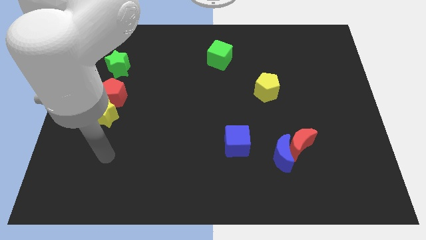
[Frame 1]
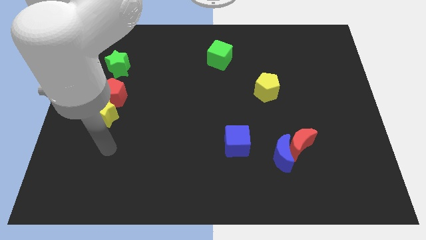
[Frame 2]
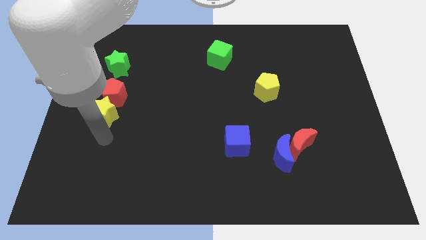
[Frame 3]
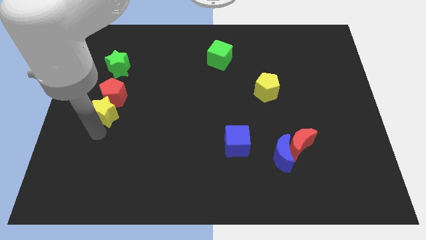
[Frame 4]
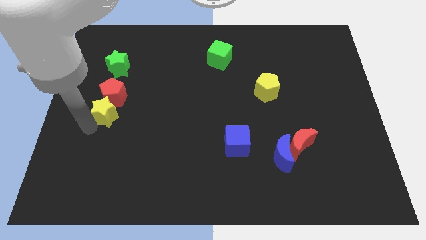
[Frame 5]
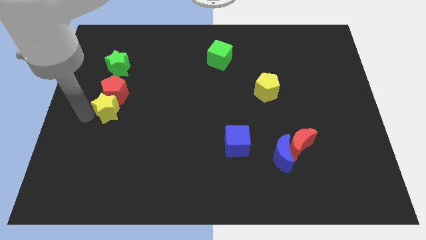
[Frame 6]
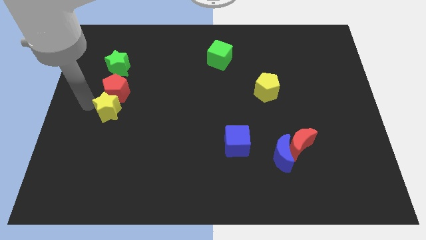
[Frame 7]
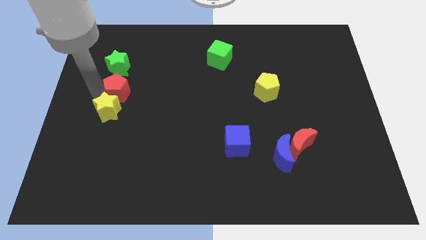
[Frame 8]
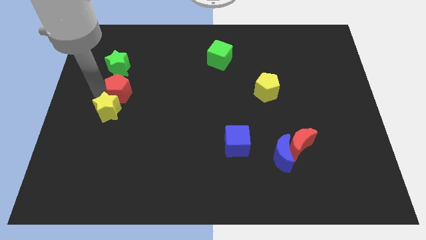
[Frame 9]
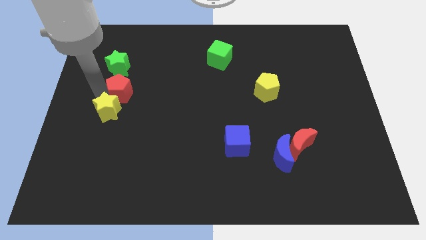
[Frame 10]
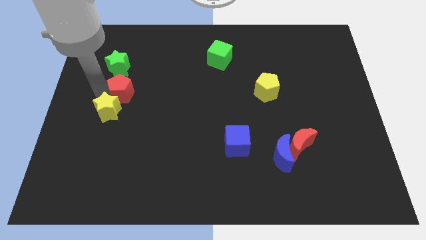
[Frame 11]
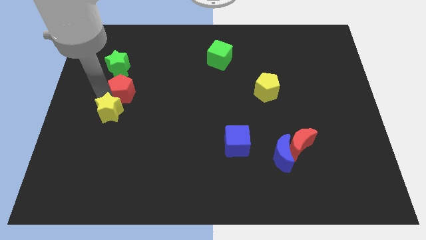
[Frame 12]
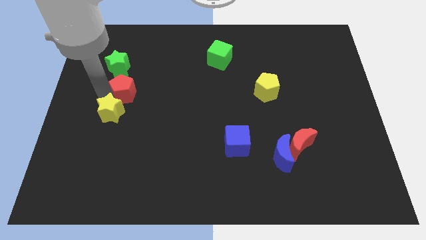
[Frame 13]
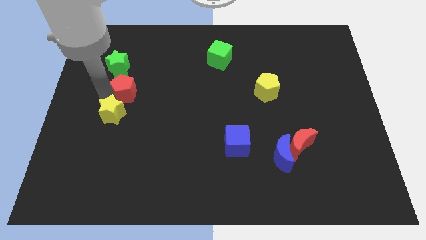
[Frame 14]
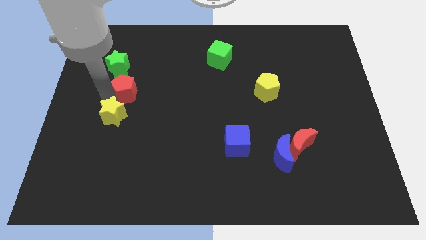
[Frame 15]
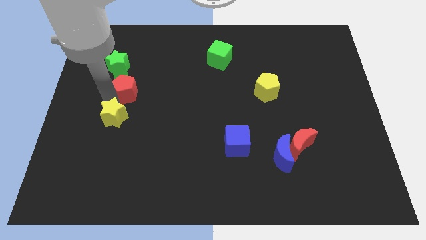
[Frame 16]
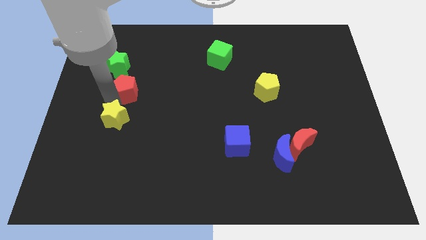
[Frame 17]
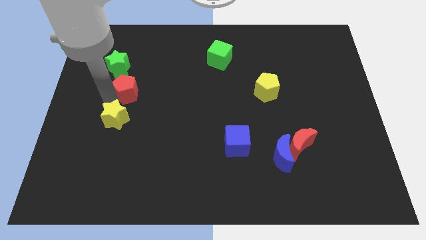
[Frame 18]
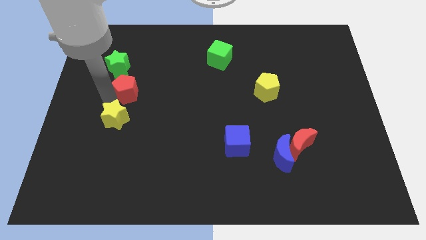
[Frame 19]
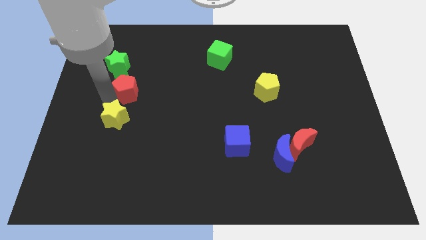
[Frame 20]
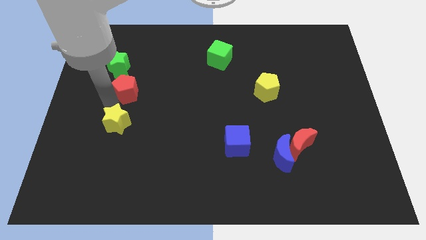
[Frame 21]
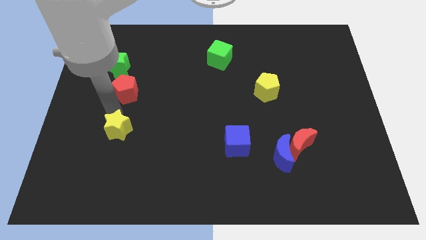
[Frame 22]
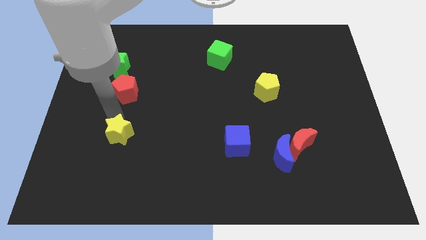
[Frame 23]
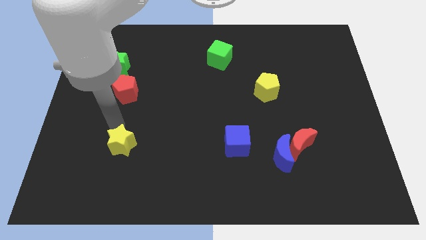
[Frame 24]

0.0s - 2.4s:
slide the yellow star a bit downwards and to the right

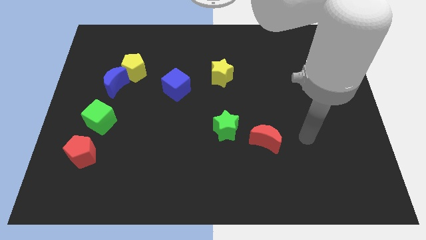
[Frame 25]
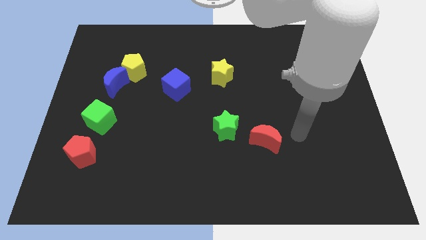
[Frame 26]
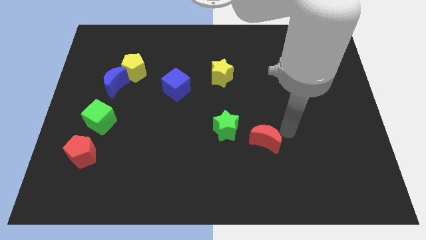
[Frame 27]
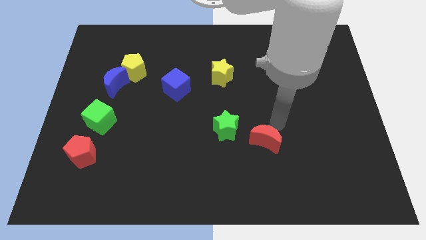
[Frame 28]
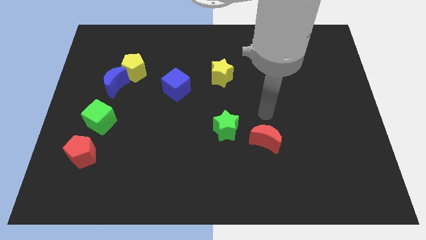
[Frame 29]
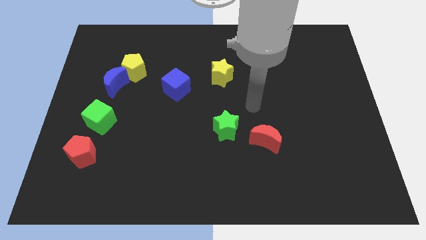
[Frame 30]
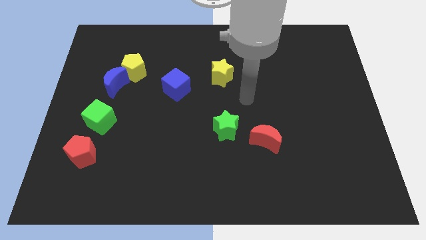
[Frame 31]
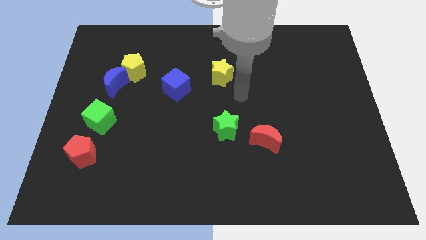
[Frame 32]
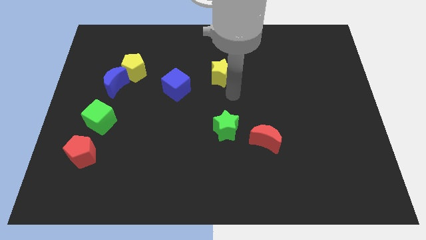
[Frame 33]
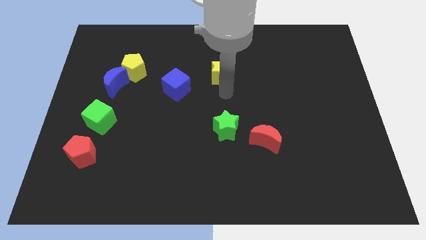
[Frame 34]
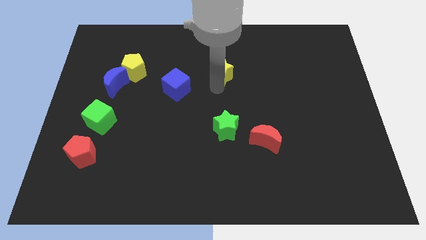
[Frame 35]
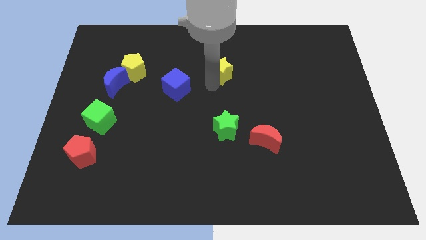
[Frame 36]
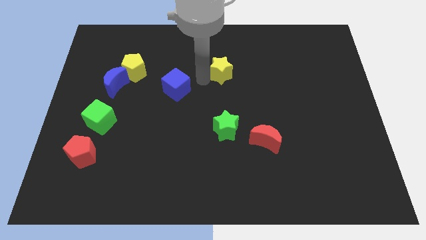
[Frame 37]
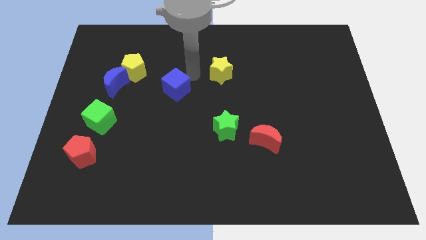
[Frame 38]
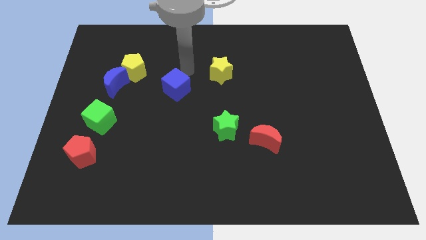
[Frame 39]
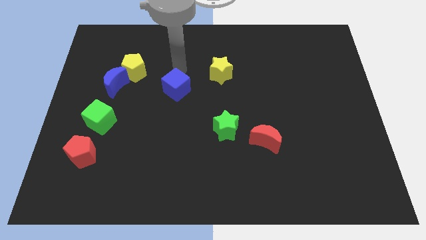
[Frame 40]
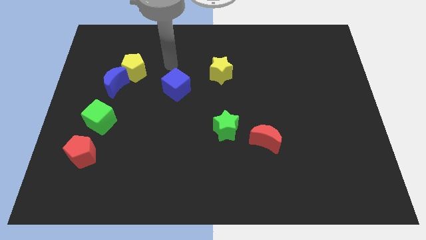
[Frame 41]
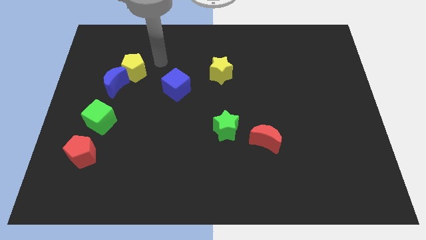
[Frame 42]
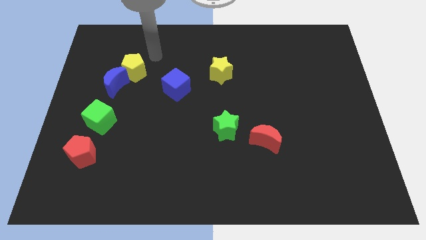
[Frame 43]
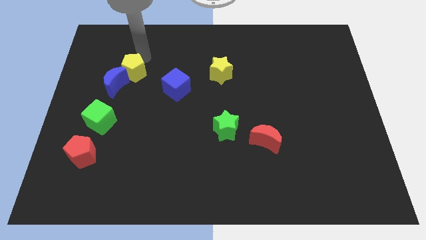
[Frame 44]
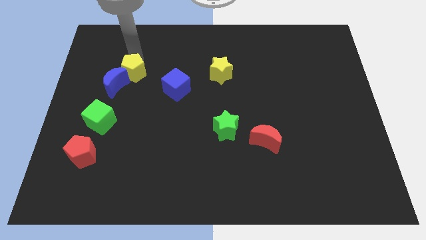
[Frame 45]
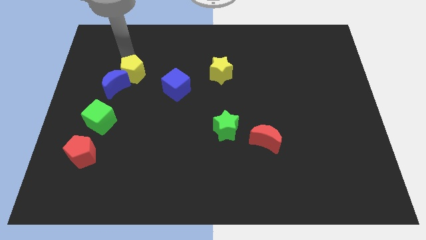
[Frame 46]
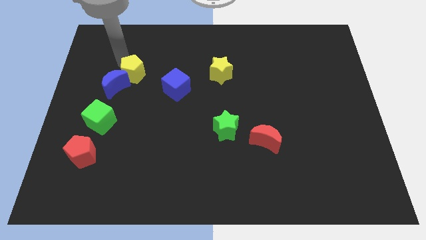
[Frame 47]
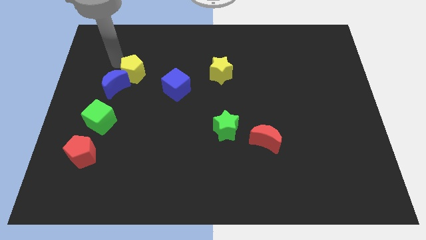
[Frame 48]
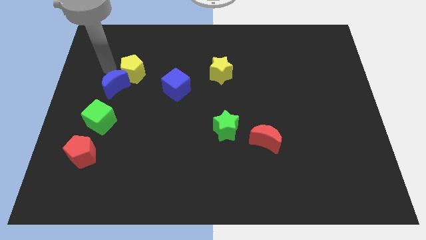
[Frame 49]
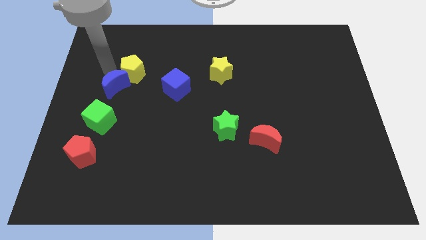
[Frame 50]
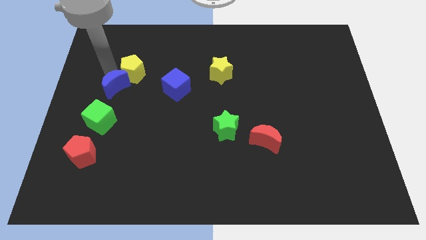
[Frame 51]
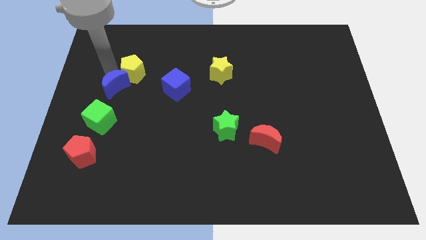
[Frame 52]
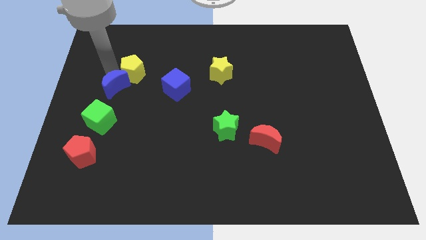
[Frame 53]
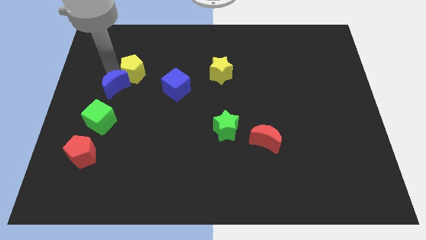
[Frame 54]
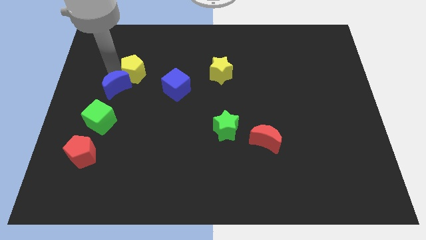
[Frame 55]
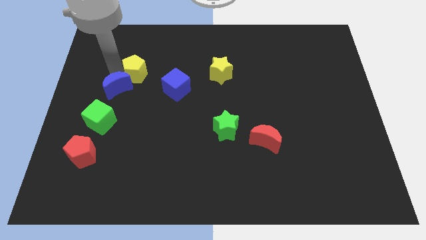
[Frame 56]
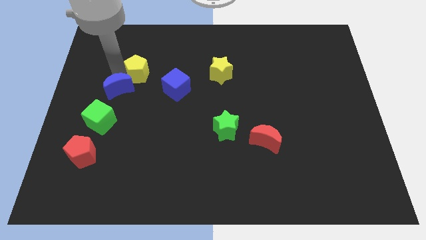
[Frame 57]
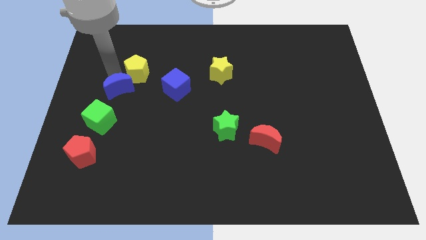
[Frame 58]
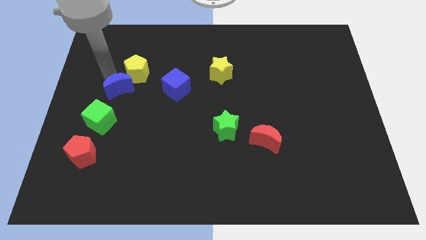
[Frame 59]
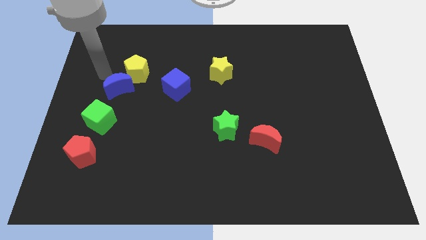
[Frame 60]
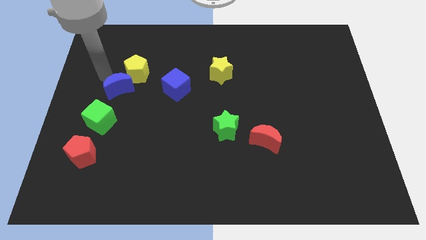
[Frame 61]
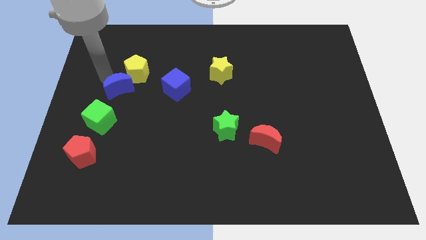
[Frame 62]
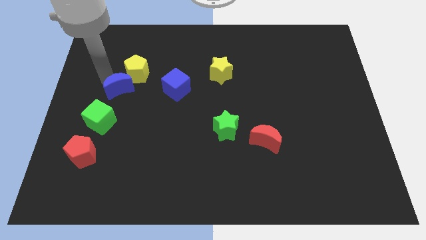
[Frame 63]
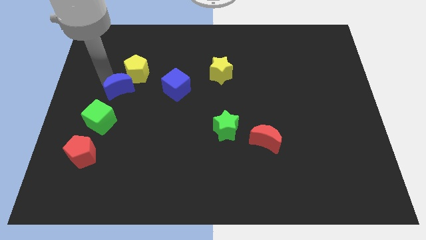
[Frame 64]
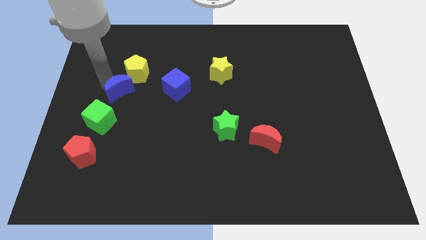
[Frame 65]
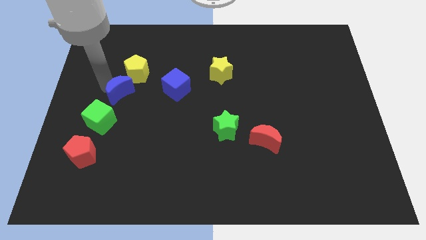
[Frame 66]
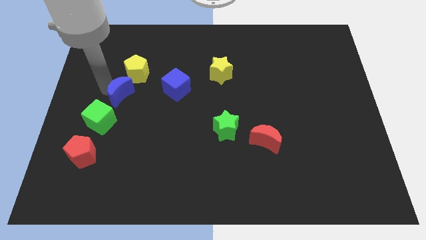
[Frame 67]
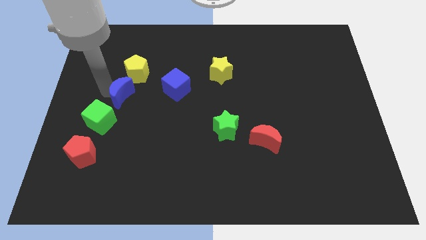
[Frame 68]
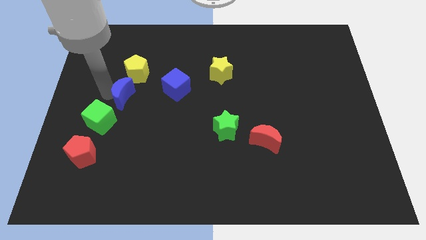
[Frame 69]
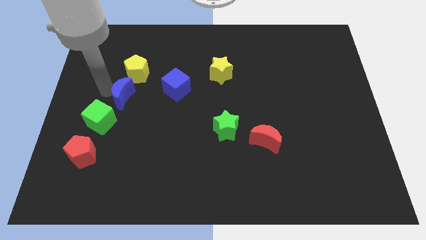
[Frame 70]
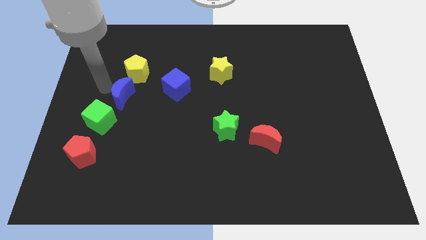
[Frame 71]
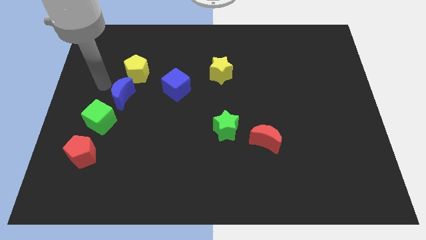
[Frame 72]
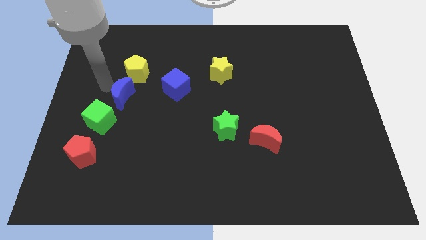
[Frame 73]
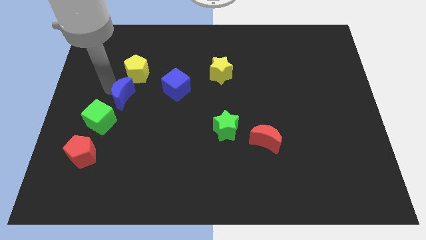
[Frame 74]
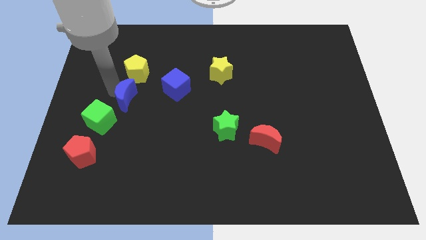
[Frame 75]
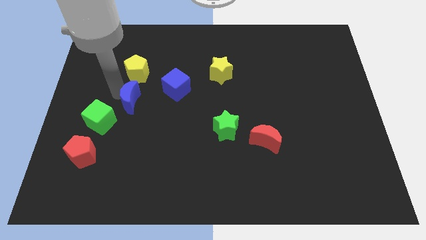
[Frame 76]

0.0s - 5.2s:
slide the blue moon a bit down and right diagonally

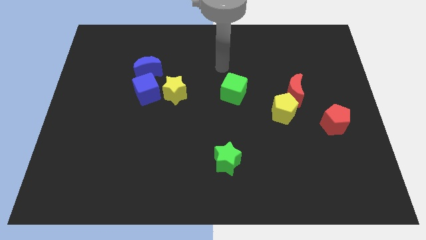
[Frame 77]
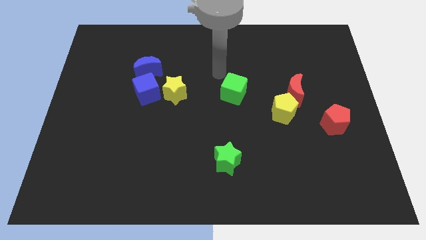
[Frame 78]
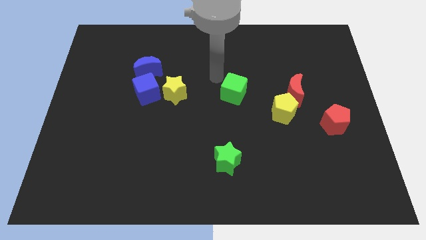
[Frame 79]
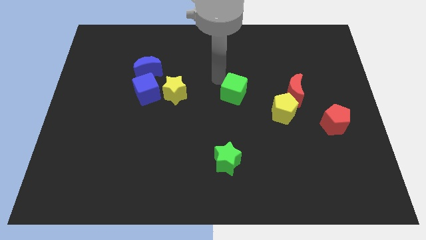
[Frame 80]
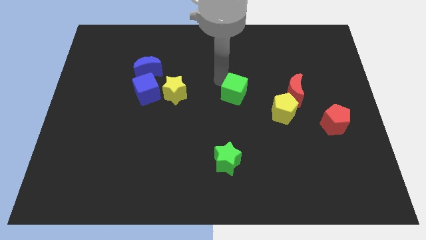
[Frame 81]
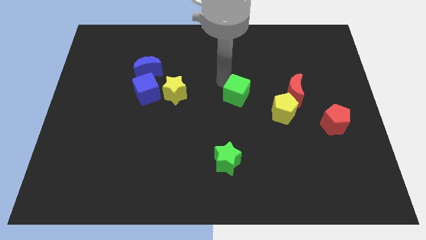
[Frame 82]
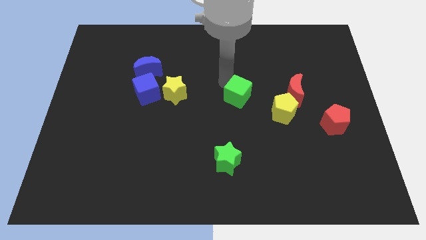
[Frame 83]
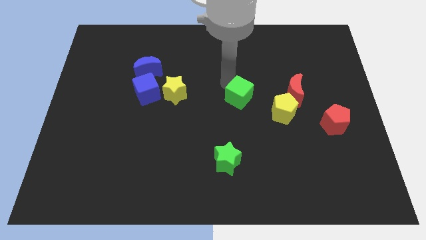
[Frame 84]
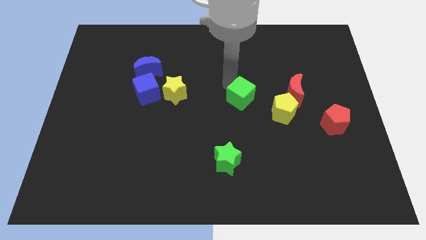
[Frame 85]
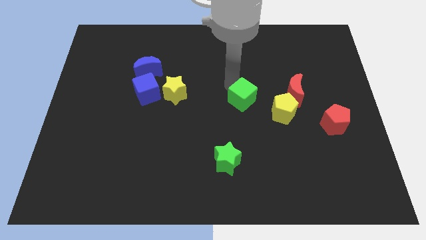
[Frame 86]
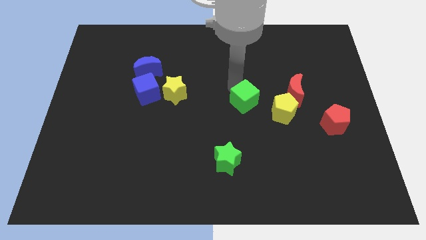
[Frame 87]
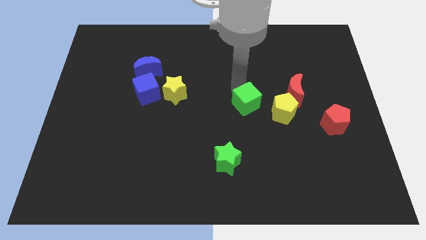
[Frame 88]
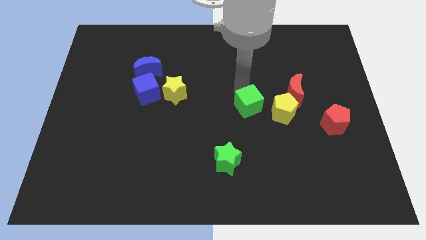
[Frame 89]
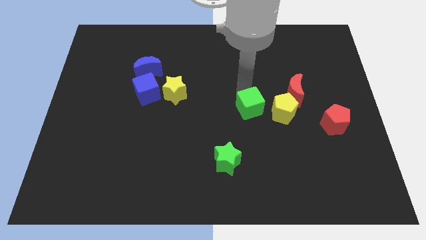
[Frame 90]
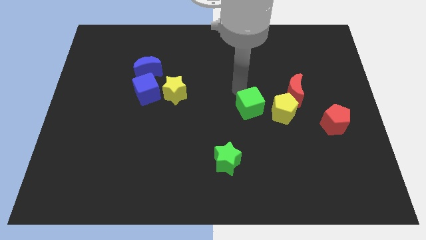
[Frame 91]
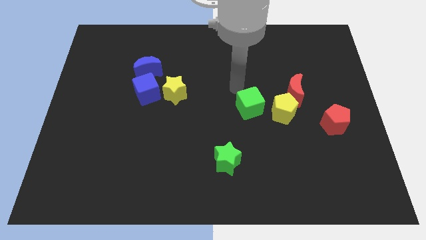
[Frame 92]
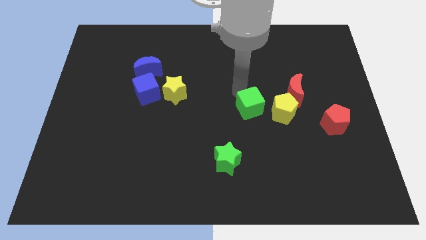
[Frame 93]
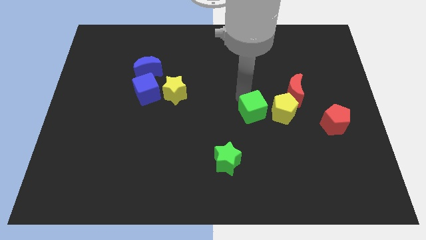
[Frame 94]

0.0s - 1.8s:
push the green cube downwards and then to the right a bit
